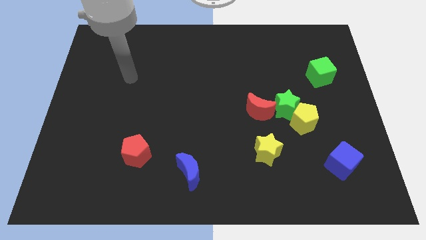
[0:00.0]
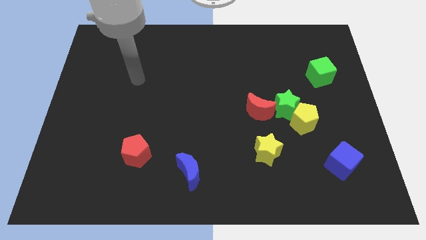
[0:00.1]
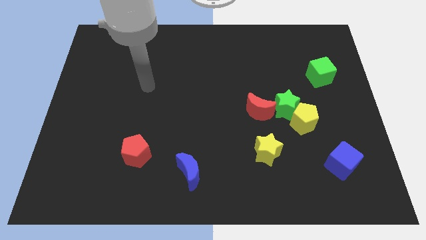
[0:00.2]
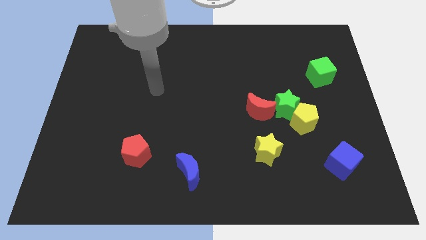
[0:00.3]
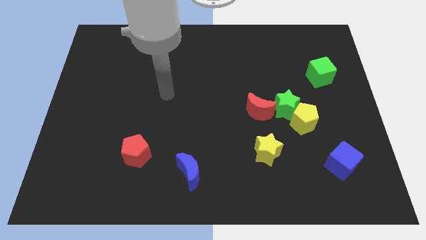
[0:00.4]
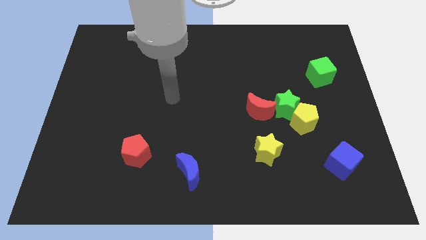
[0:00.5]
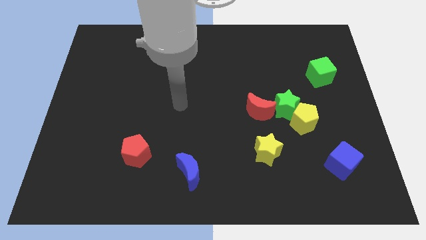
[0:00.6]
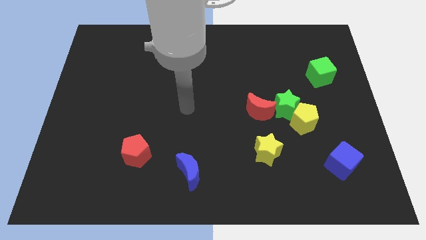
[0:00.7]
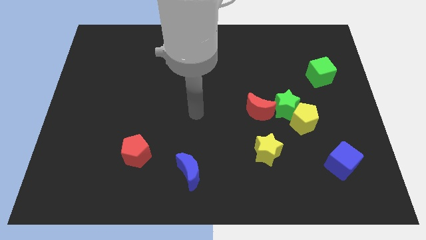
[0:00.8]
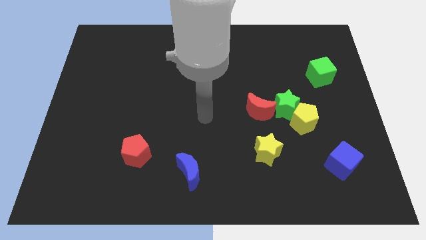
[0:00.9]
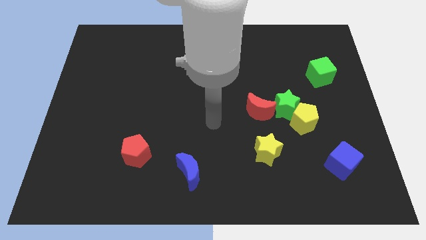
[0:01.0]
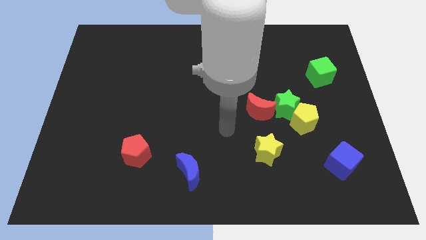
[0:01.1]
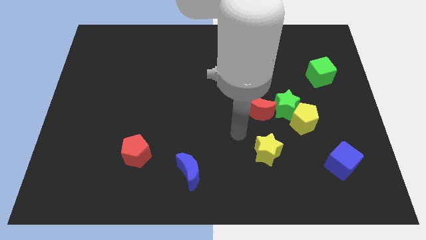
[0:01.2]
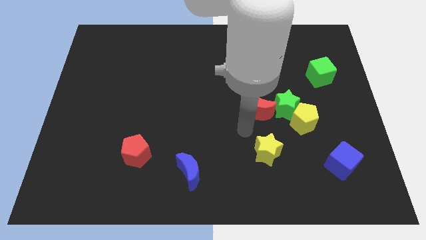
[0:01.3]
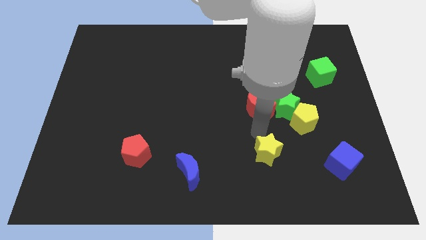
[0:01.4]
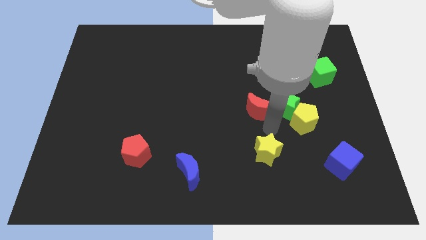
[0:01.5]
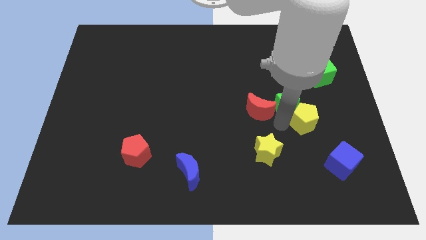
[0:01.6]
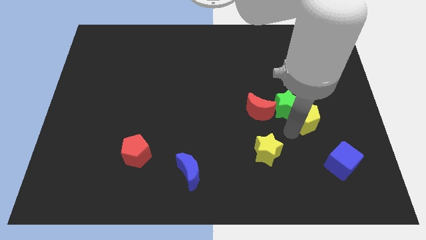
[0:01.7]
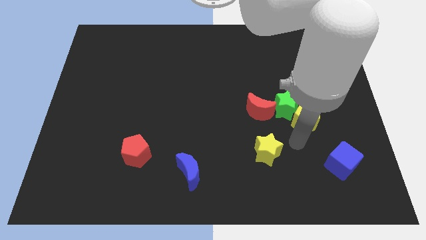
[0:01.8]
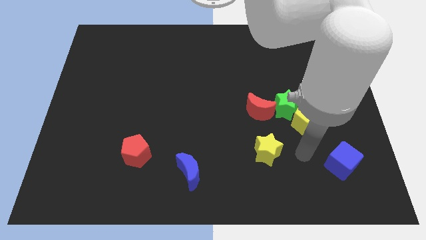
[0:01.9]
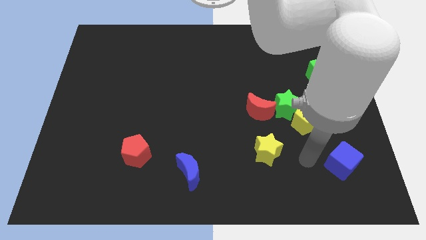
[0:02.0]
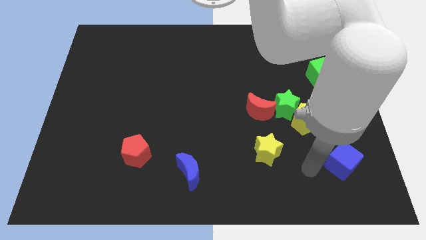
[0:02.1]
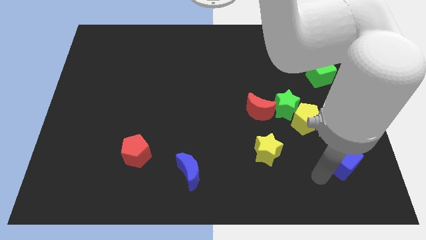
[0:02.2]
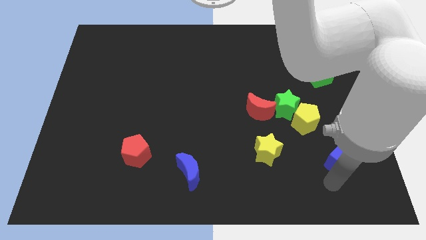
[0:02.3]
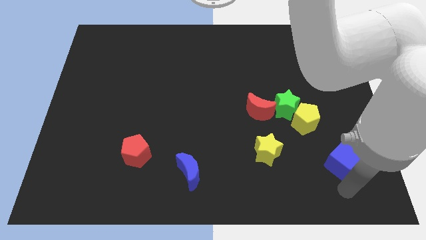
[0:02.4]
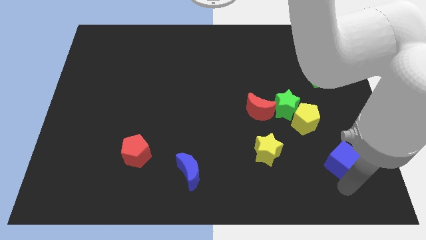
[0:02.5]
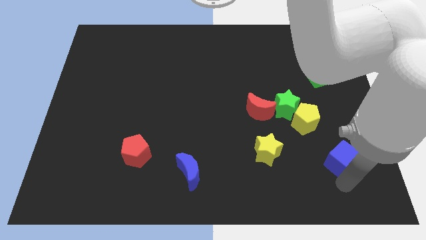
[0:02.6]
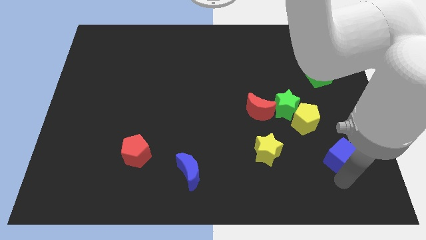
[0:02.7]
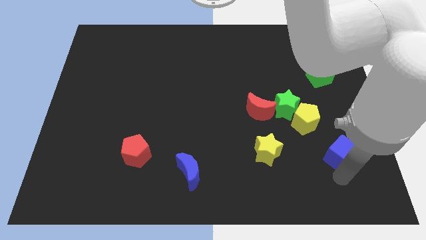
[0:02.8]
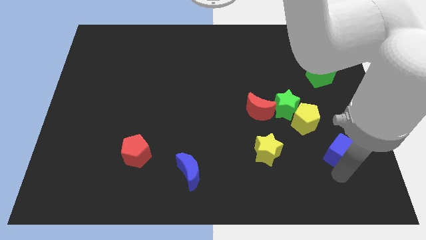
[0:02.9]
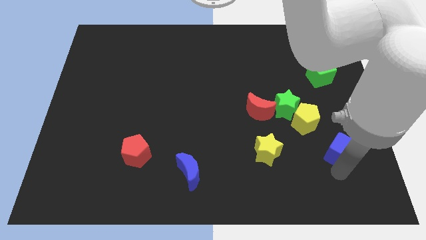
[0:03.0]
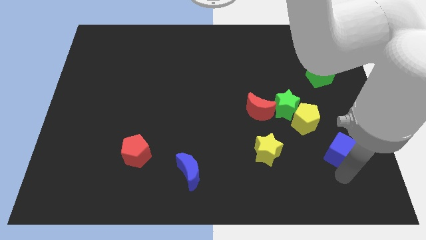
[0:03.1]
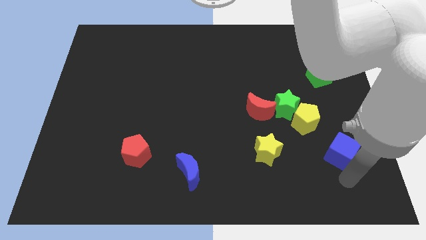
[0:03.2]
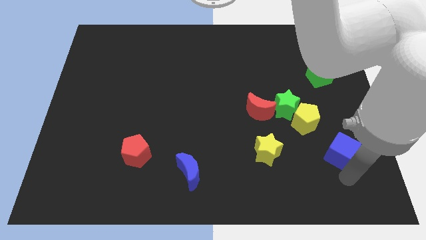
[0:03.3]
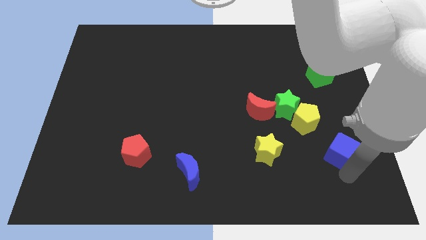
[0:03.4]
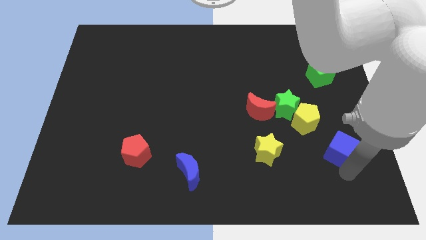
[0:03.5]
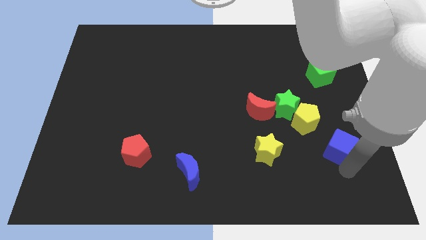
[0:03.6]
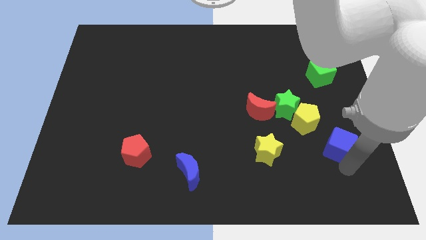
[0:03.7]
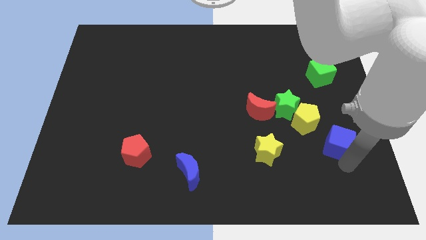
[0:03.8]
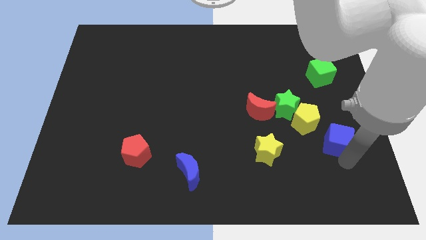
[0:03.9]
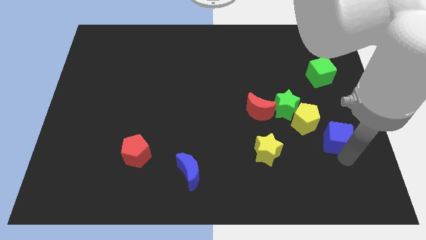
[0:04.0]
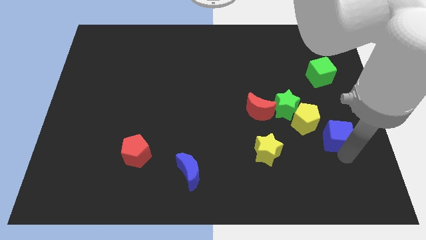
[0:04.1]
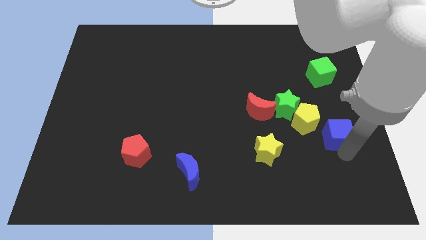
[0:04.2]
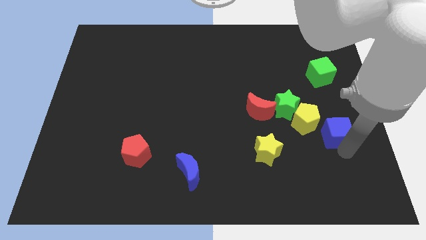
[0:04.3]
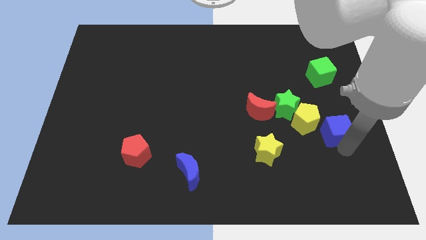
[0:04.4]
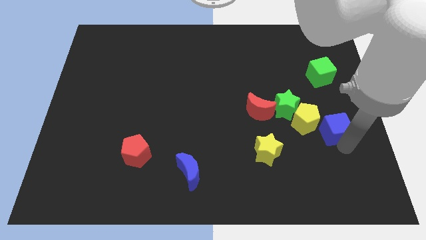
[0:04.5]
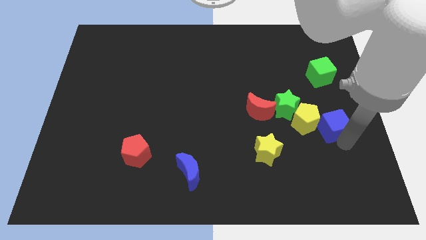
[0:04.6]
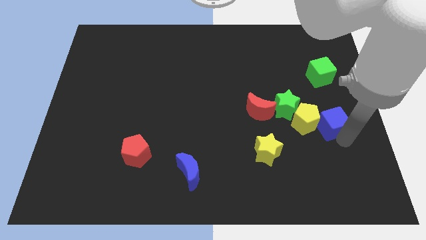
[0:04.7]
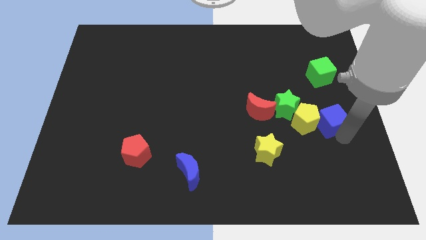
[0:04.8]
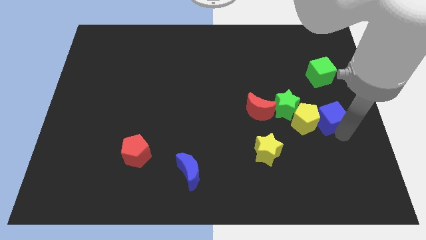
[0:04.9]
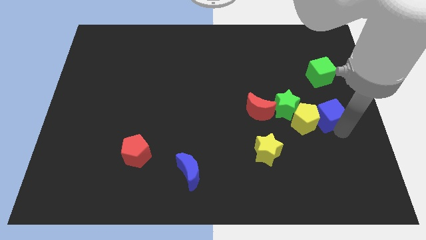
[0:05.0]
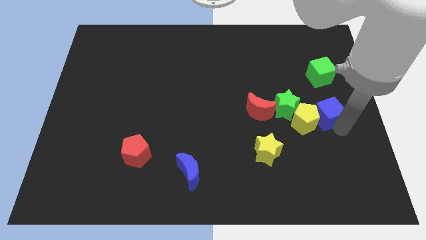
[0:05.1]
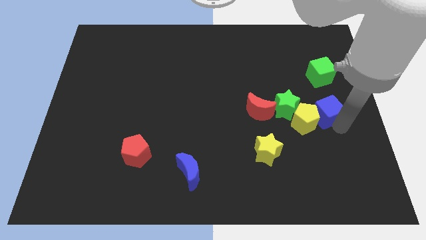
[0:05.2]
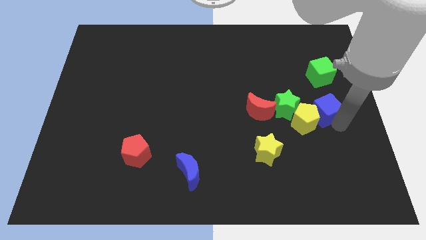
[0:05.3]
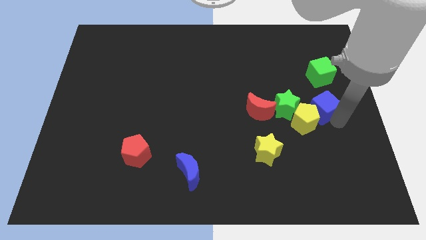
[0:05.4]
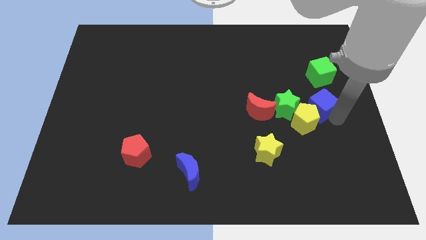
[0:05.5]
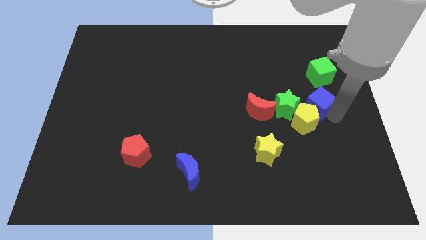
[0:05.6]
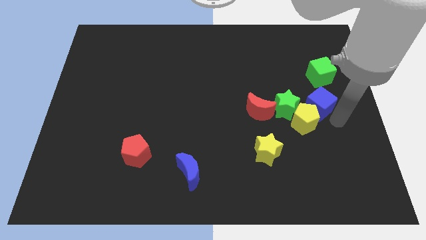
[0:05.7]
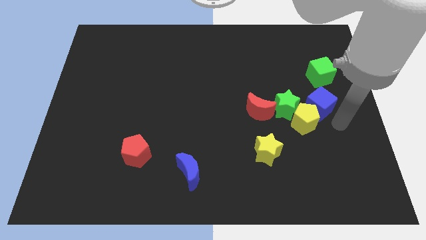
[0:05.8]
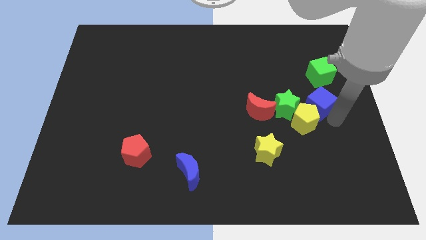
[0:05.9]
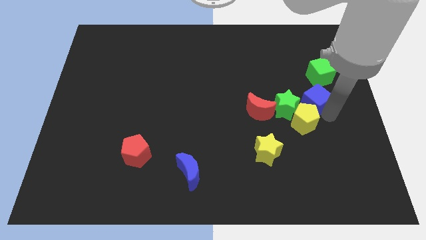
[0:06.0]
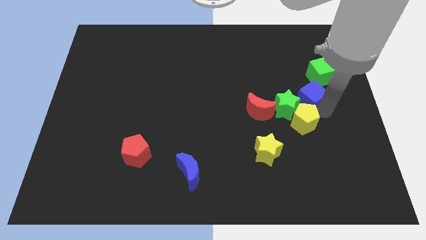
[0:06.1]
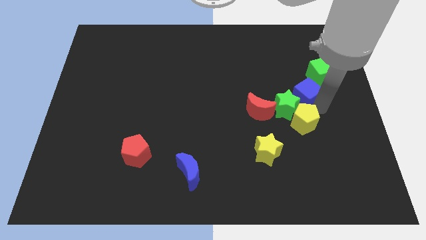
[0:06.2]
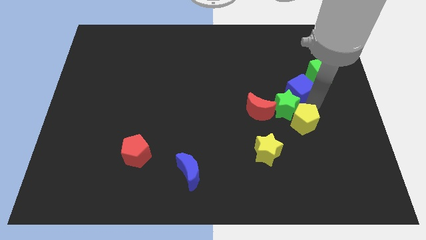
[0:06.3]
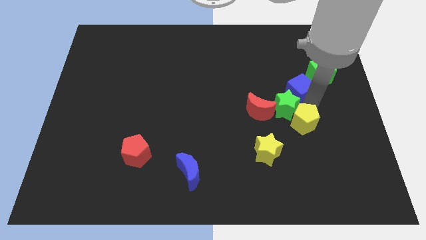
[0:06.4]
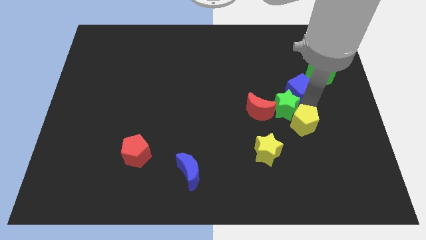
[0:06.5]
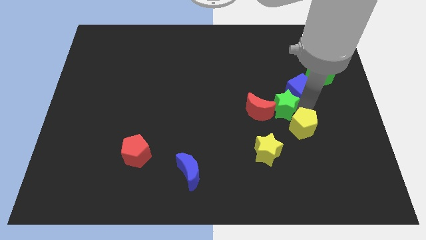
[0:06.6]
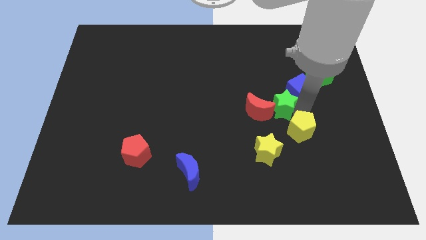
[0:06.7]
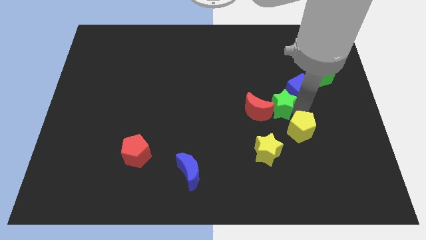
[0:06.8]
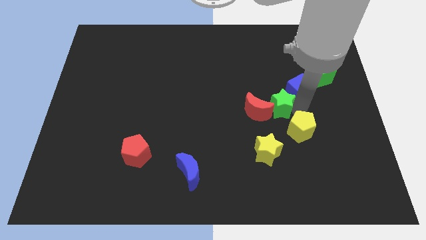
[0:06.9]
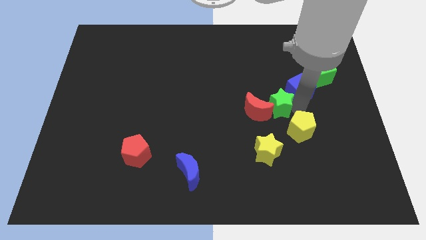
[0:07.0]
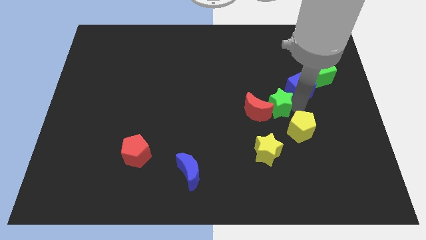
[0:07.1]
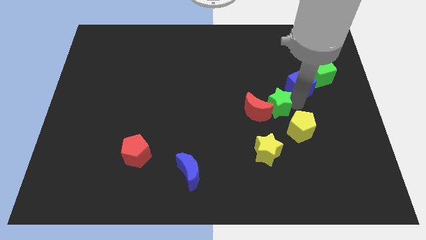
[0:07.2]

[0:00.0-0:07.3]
move the blue cube upwards

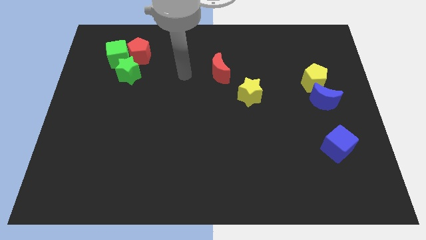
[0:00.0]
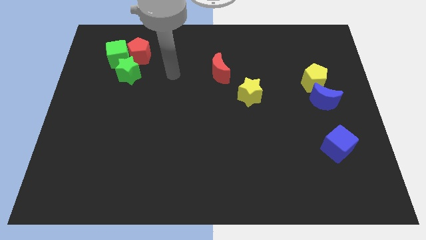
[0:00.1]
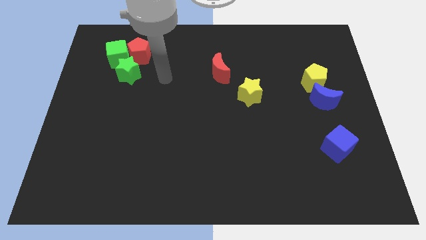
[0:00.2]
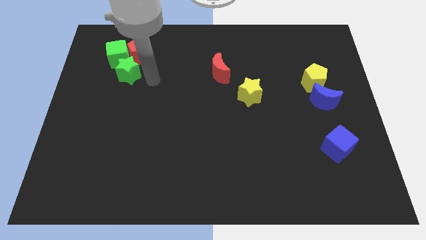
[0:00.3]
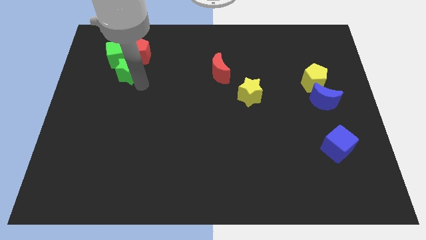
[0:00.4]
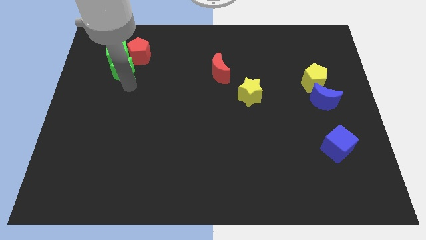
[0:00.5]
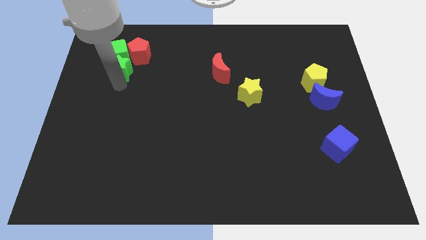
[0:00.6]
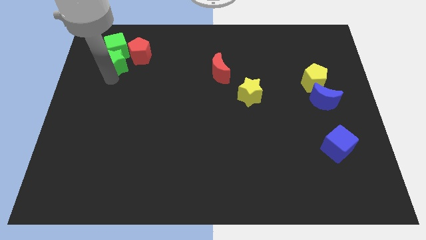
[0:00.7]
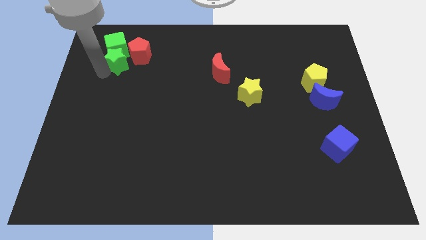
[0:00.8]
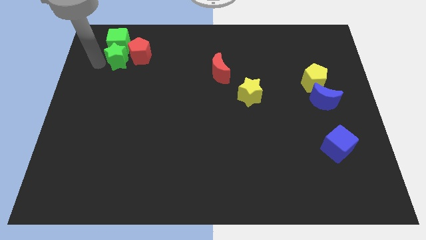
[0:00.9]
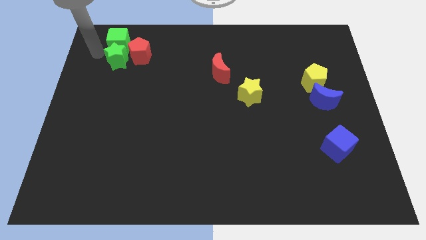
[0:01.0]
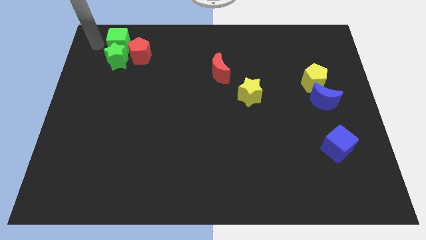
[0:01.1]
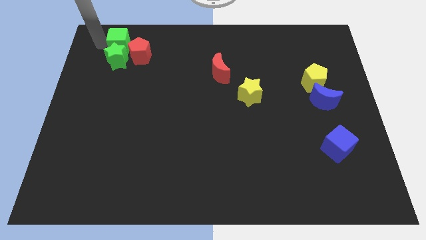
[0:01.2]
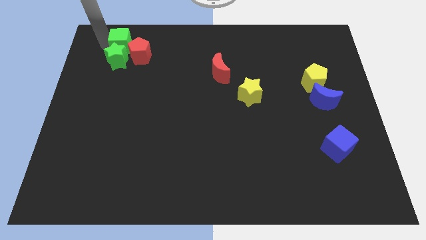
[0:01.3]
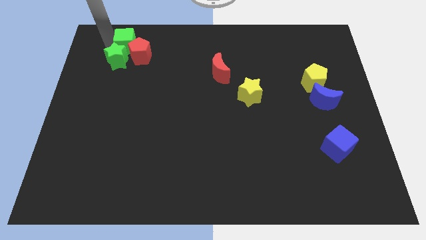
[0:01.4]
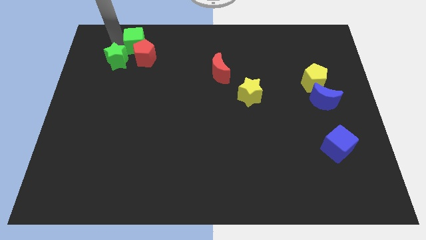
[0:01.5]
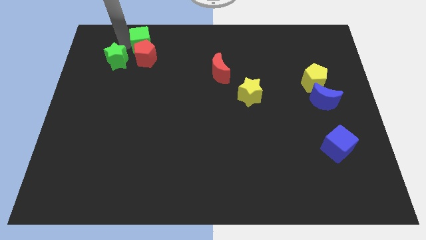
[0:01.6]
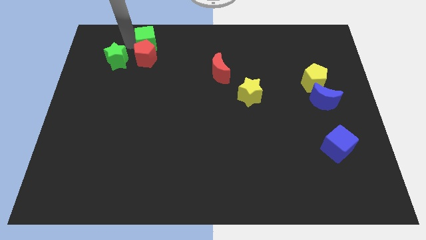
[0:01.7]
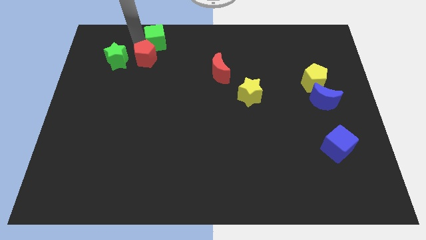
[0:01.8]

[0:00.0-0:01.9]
slide the green cube to the right a bit
